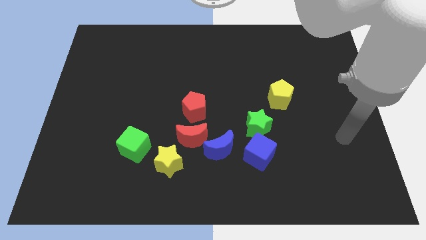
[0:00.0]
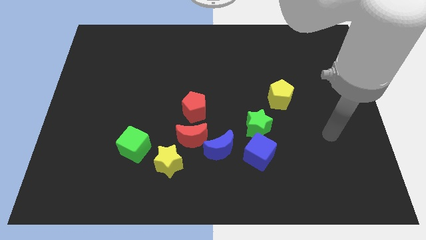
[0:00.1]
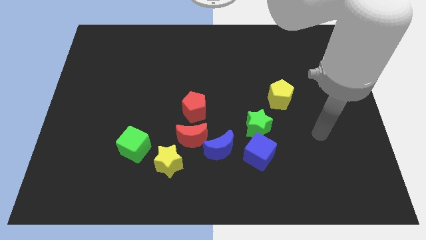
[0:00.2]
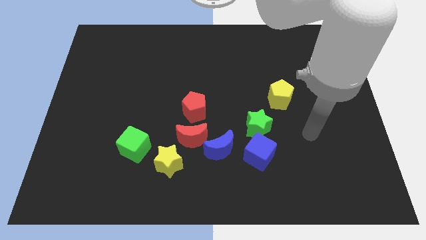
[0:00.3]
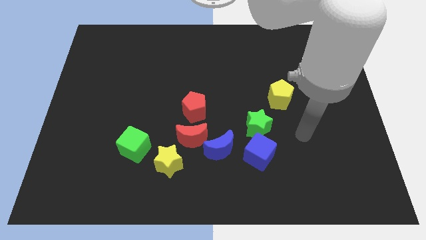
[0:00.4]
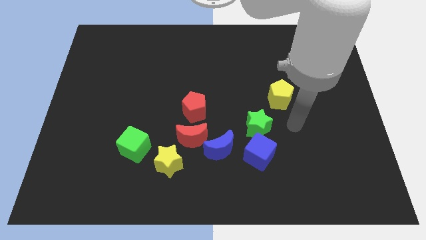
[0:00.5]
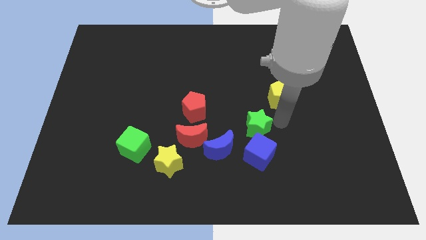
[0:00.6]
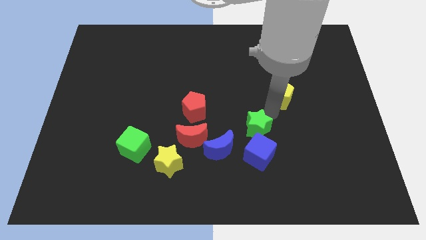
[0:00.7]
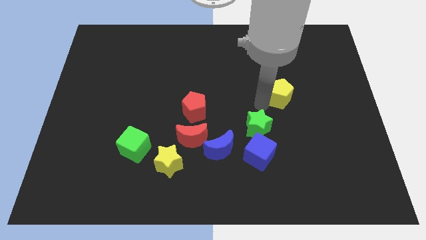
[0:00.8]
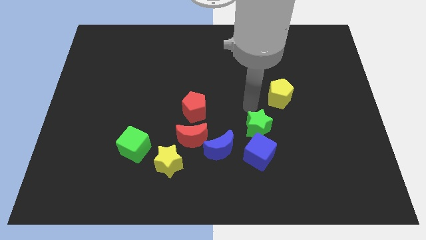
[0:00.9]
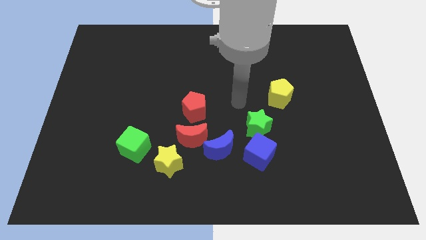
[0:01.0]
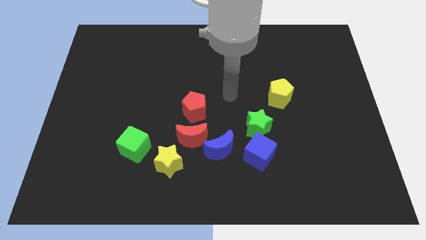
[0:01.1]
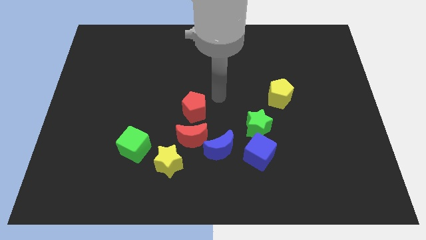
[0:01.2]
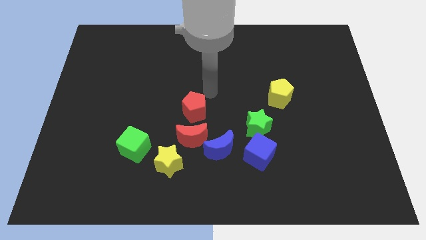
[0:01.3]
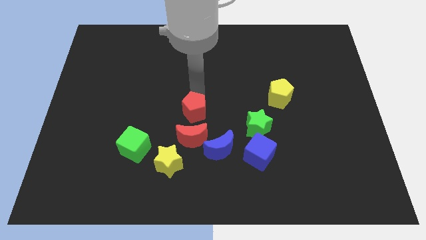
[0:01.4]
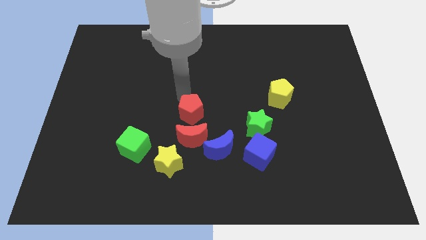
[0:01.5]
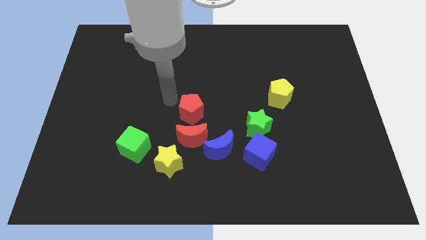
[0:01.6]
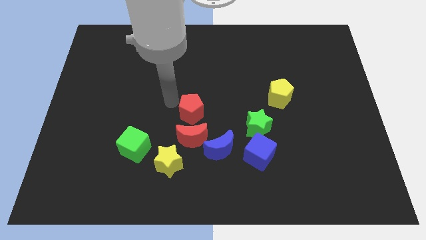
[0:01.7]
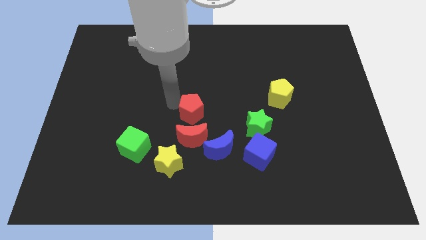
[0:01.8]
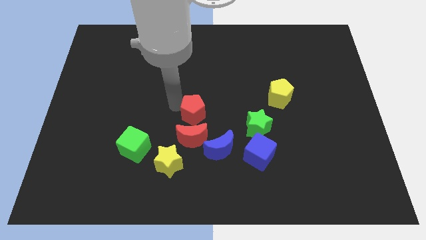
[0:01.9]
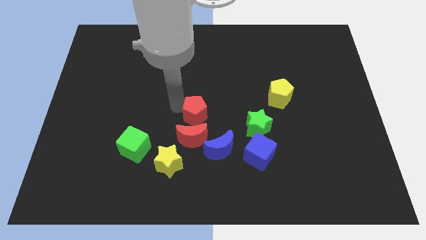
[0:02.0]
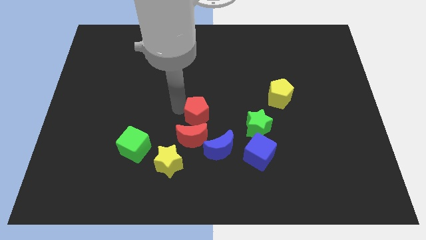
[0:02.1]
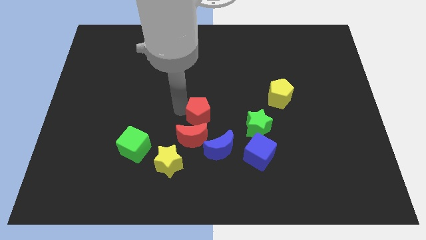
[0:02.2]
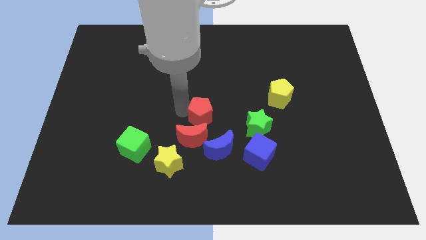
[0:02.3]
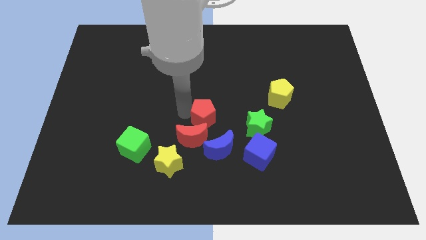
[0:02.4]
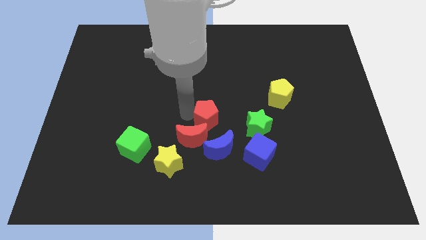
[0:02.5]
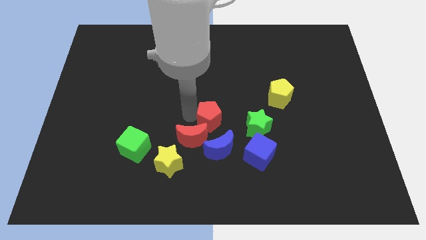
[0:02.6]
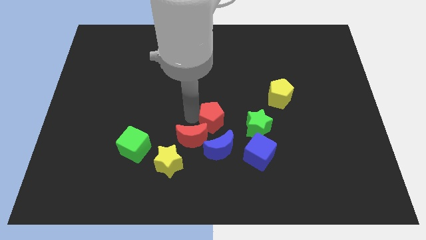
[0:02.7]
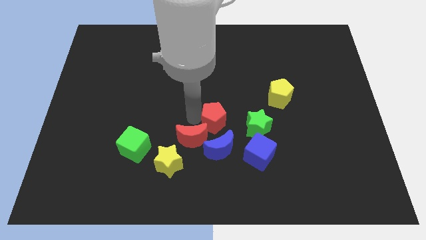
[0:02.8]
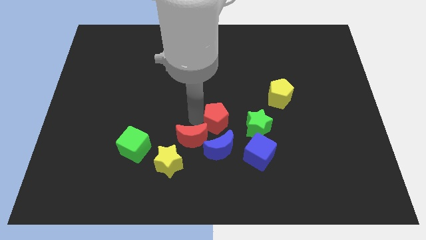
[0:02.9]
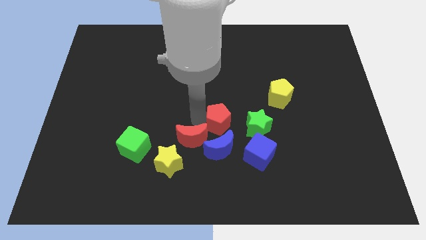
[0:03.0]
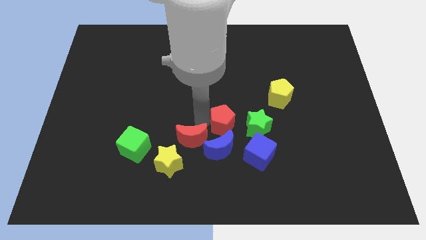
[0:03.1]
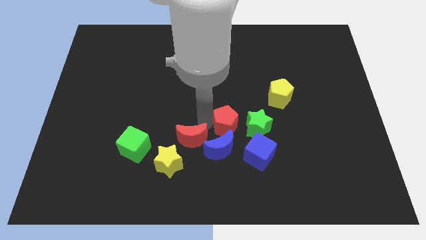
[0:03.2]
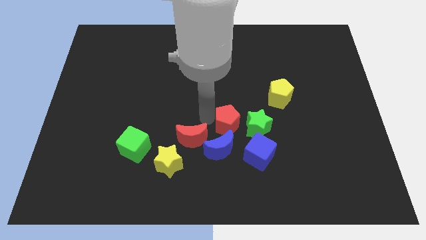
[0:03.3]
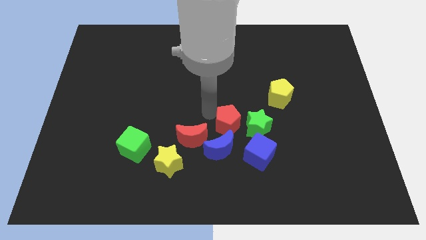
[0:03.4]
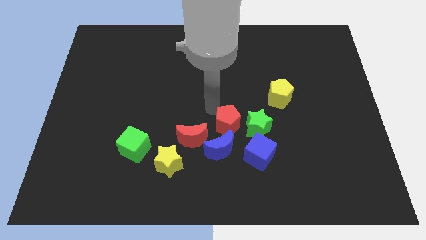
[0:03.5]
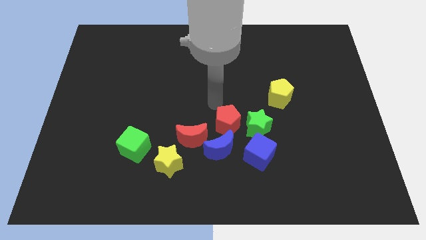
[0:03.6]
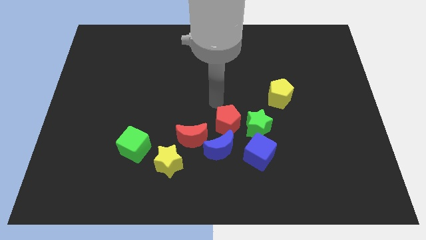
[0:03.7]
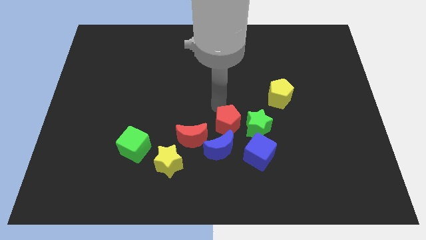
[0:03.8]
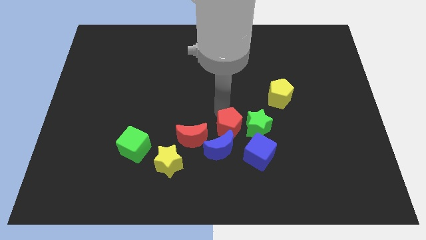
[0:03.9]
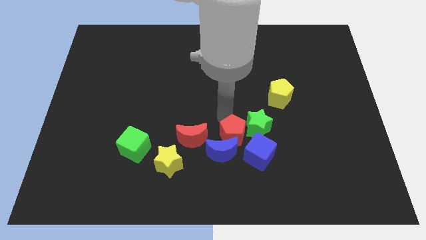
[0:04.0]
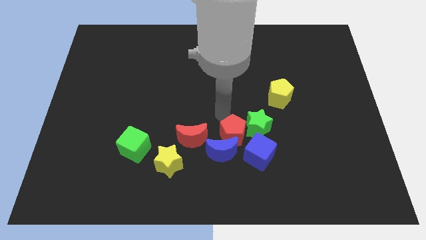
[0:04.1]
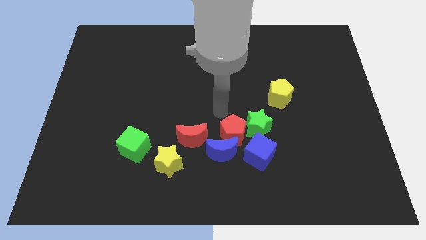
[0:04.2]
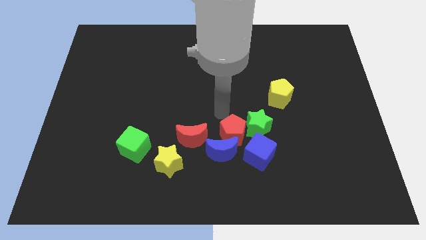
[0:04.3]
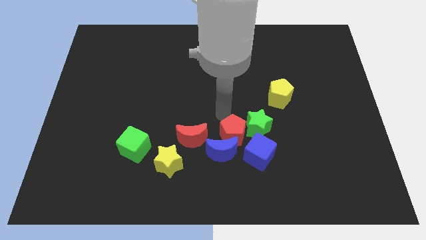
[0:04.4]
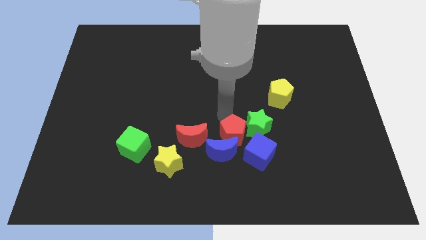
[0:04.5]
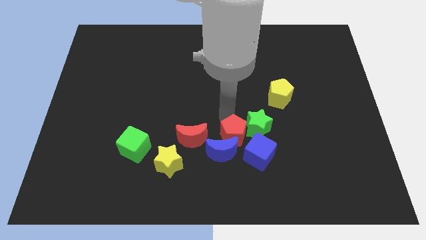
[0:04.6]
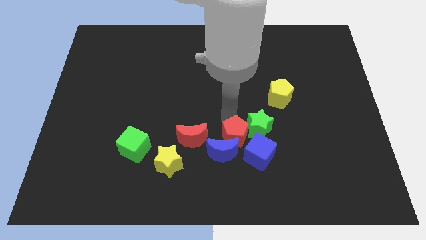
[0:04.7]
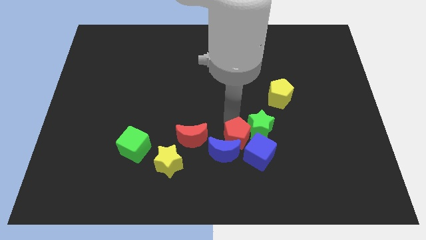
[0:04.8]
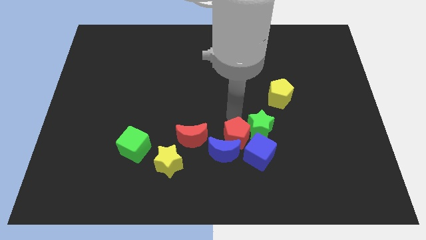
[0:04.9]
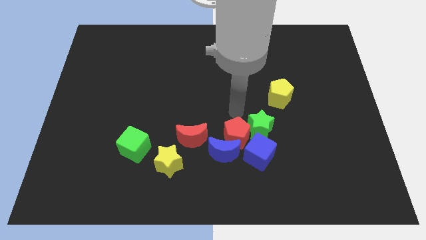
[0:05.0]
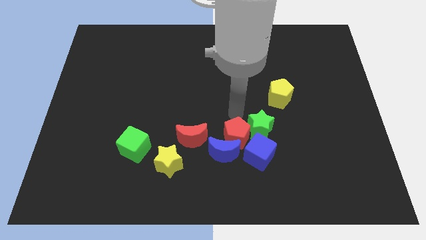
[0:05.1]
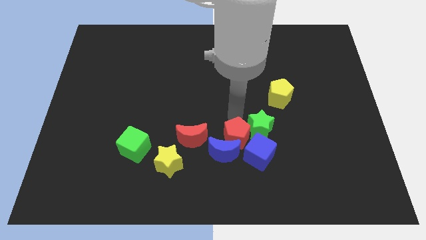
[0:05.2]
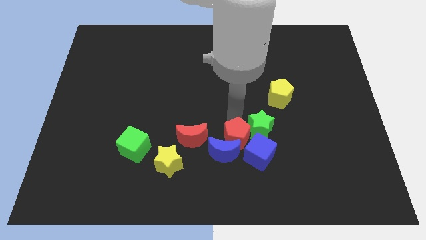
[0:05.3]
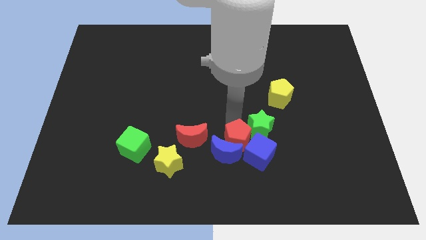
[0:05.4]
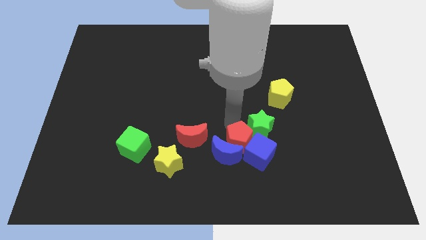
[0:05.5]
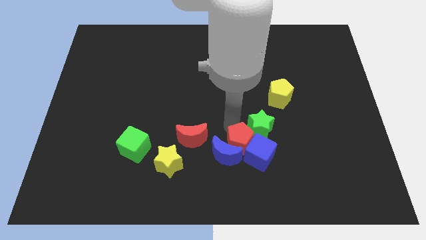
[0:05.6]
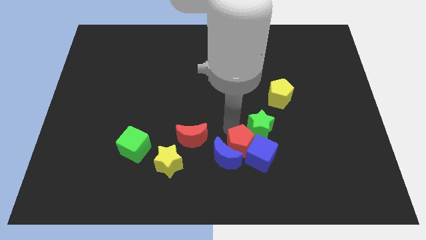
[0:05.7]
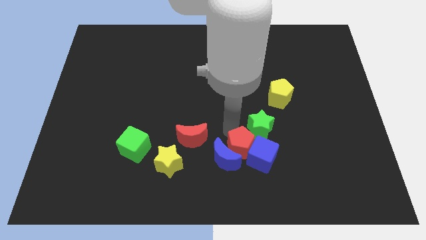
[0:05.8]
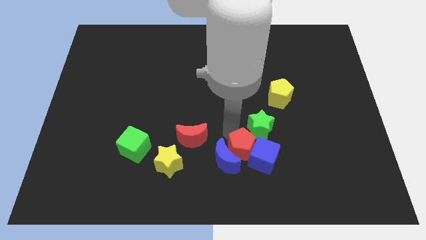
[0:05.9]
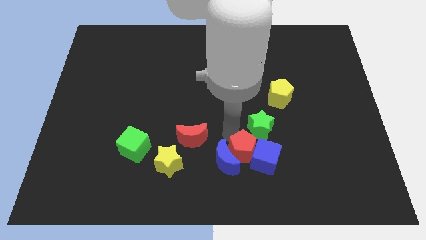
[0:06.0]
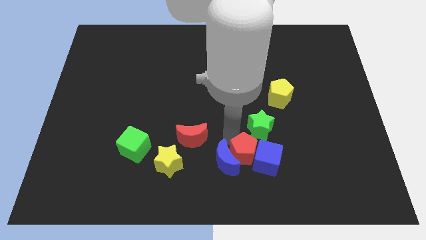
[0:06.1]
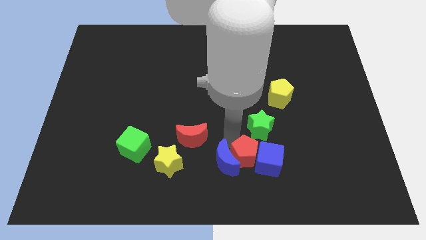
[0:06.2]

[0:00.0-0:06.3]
push the red pentagon diagonally down and to the left of the blue cube

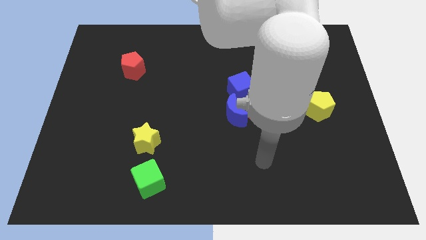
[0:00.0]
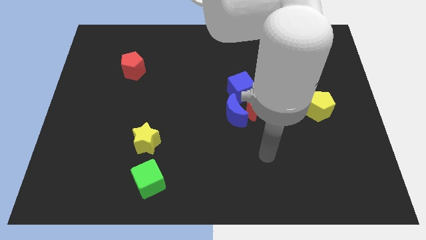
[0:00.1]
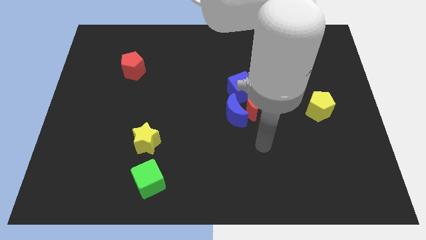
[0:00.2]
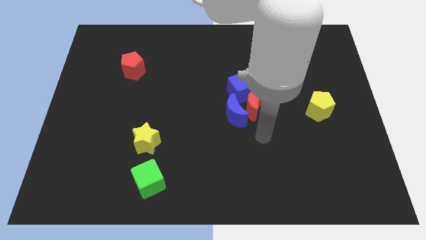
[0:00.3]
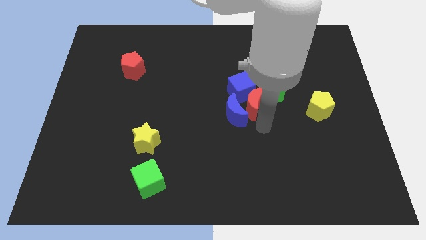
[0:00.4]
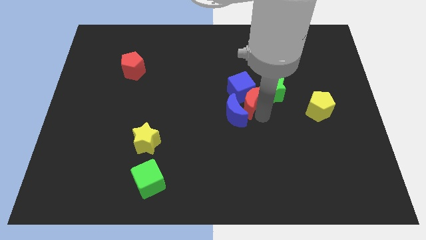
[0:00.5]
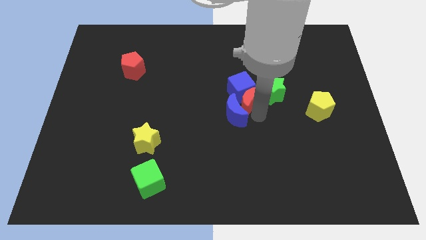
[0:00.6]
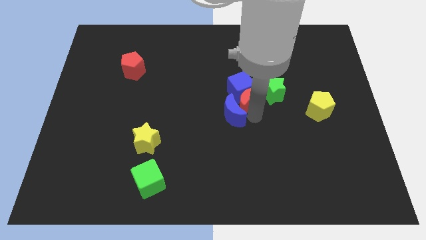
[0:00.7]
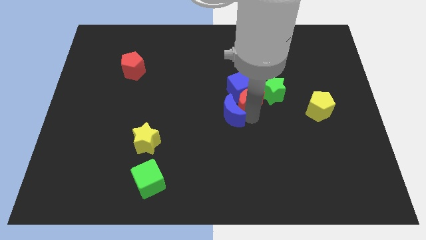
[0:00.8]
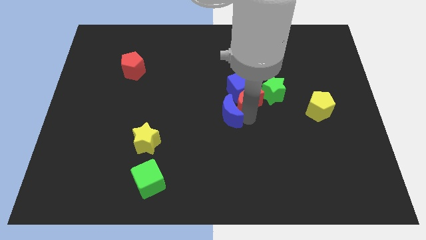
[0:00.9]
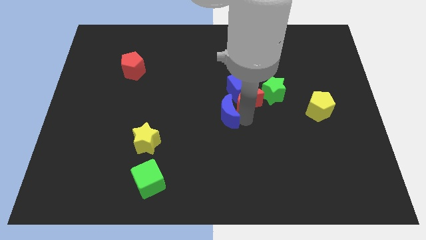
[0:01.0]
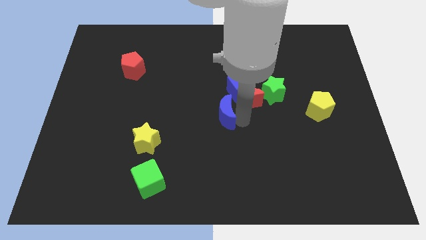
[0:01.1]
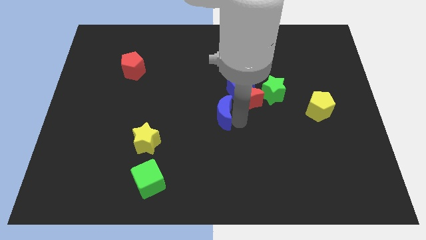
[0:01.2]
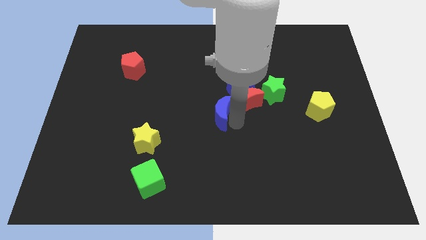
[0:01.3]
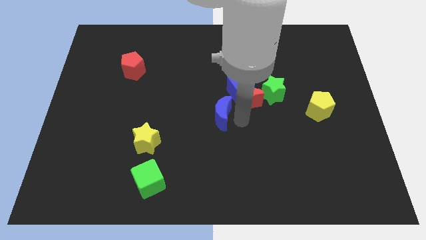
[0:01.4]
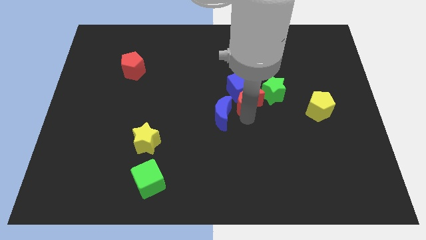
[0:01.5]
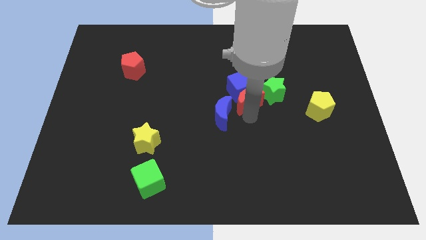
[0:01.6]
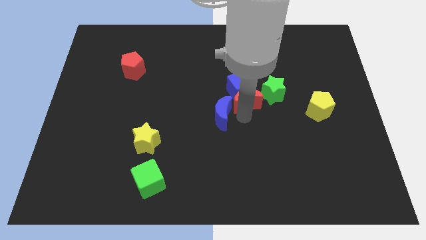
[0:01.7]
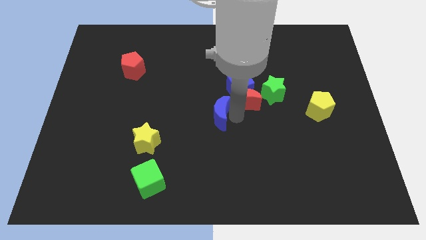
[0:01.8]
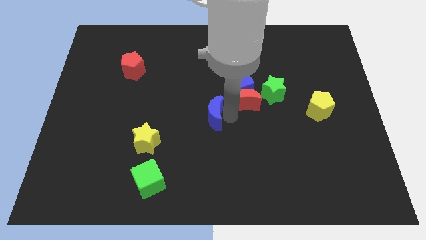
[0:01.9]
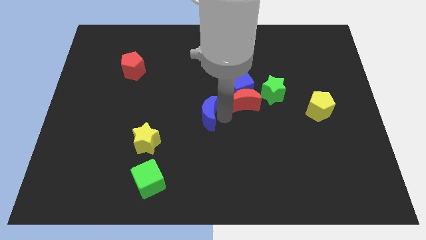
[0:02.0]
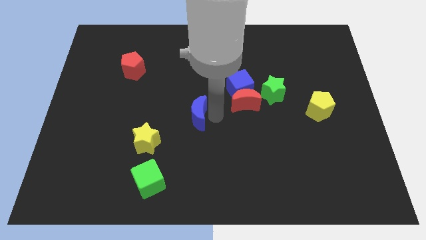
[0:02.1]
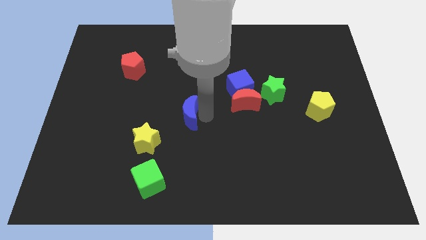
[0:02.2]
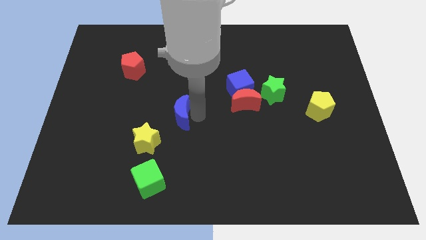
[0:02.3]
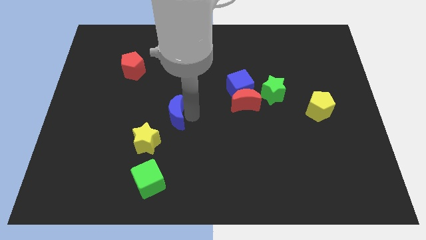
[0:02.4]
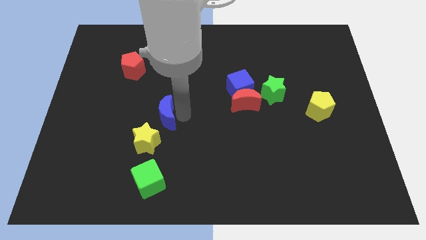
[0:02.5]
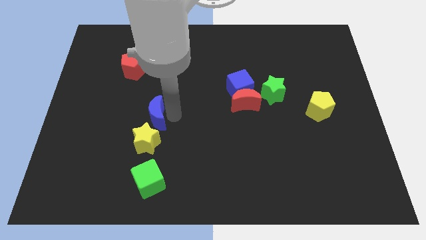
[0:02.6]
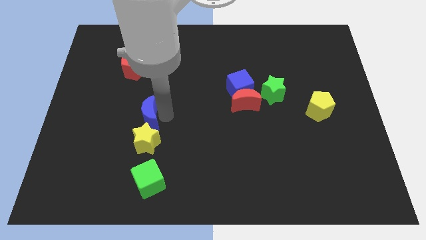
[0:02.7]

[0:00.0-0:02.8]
slide the blue moon diagonally up and to the left of the yellow star
